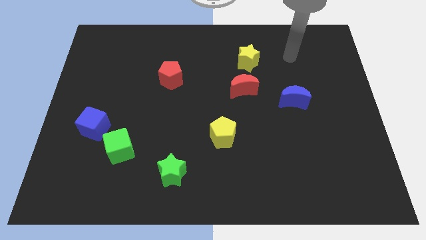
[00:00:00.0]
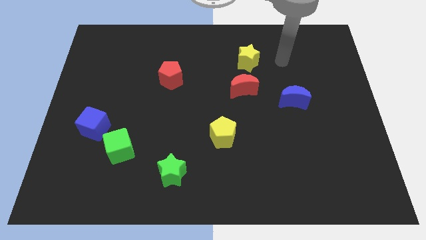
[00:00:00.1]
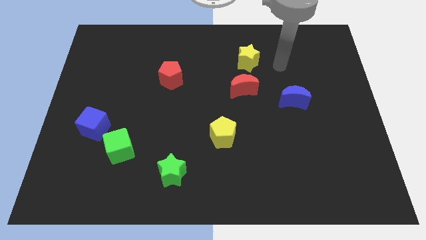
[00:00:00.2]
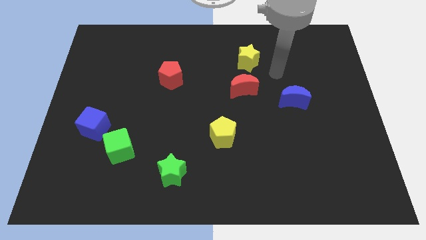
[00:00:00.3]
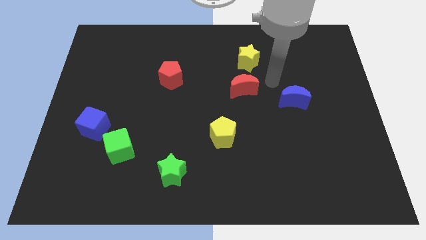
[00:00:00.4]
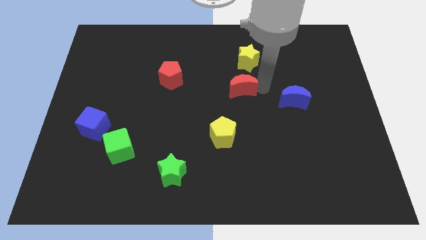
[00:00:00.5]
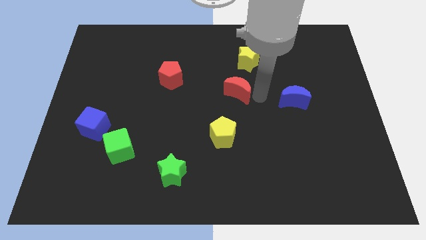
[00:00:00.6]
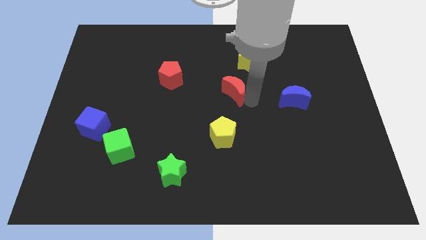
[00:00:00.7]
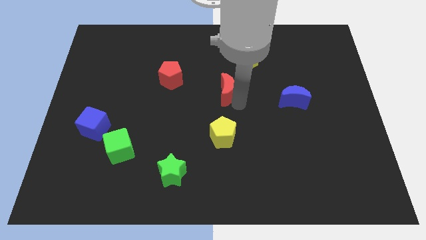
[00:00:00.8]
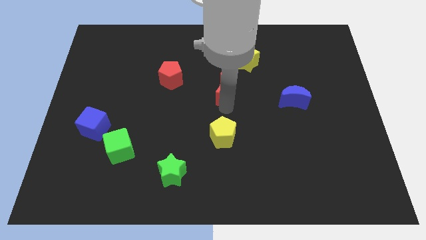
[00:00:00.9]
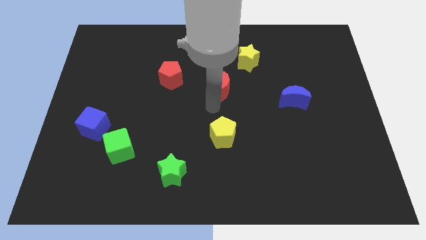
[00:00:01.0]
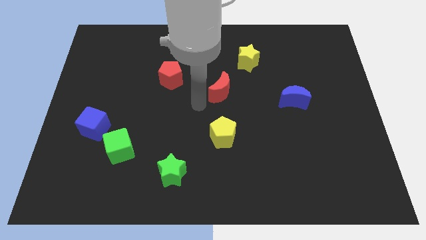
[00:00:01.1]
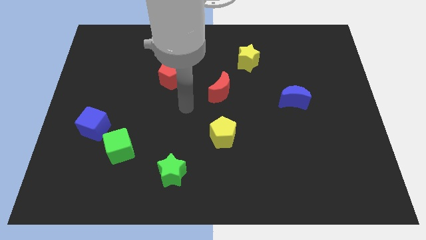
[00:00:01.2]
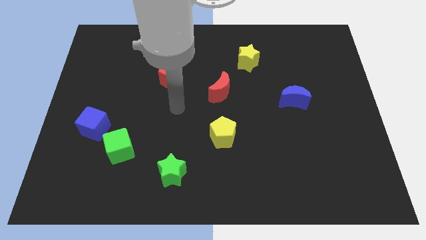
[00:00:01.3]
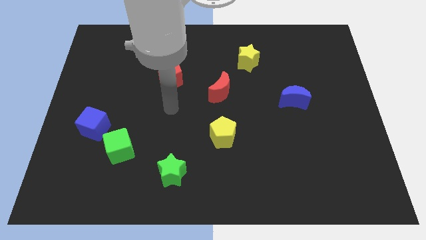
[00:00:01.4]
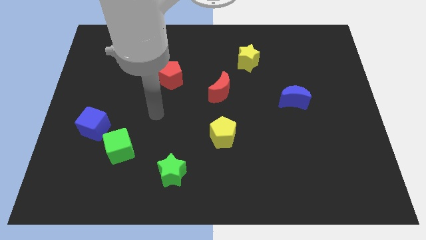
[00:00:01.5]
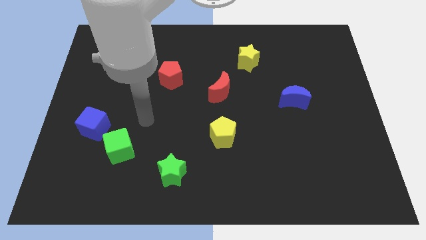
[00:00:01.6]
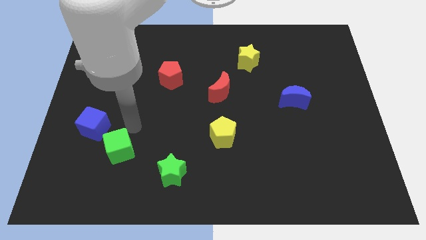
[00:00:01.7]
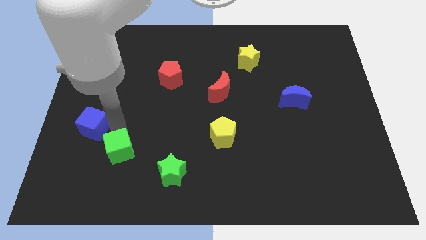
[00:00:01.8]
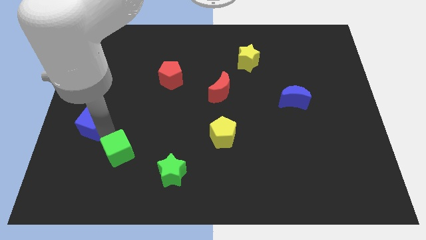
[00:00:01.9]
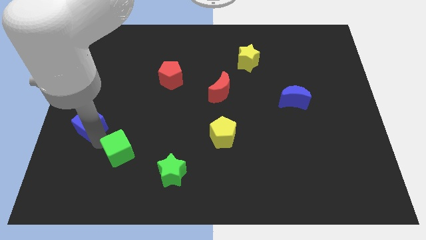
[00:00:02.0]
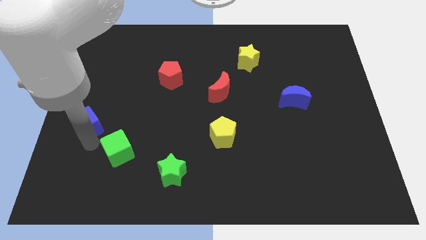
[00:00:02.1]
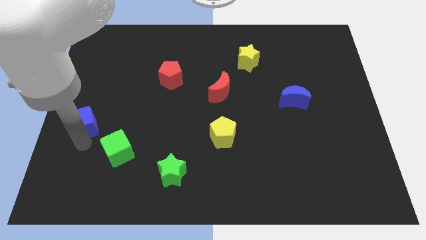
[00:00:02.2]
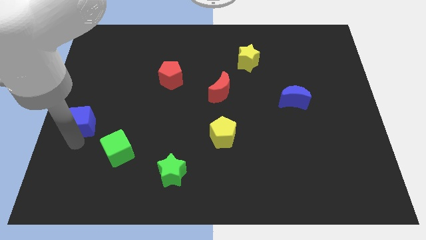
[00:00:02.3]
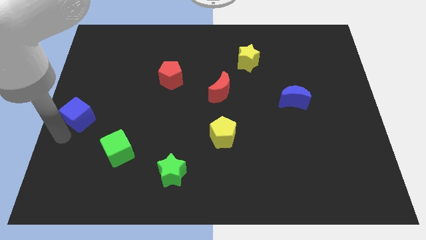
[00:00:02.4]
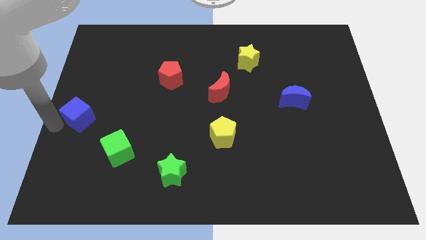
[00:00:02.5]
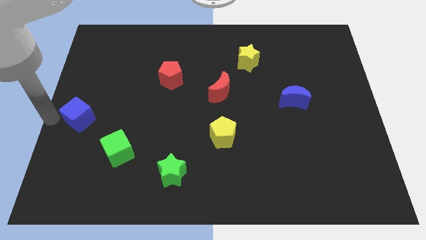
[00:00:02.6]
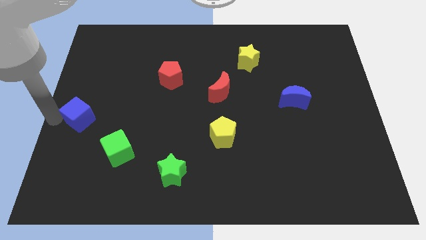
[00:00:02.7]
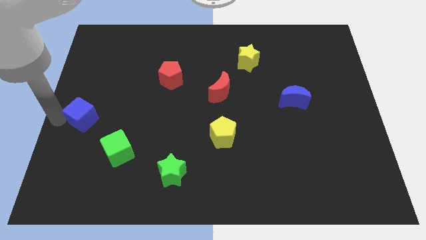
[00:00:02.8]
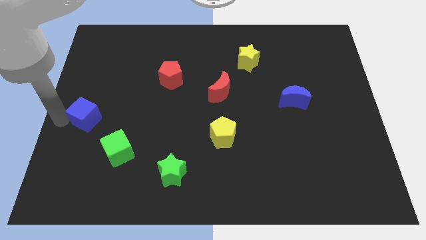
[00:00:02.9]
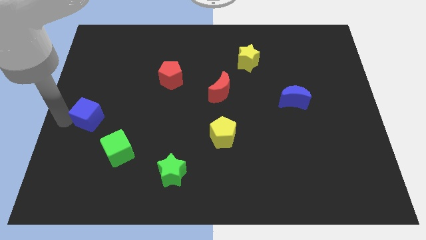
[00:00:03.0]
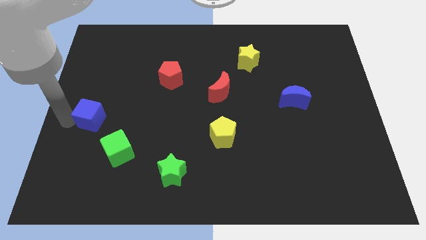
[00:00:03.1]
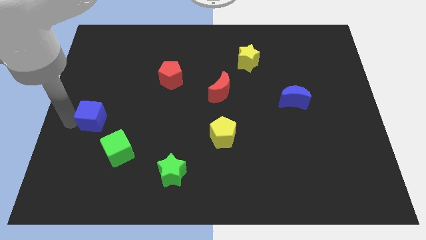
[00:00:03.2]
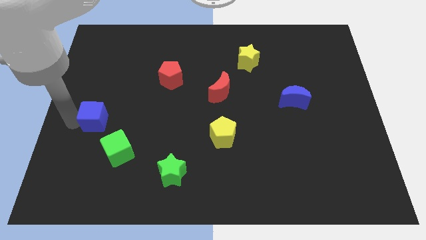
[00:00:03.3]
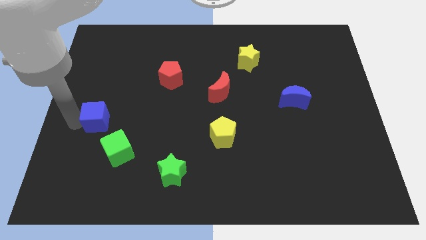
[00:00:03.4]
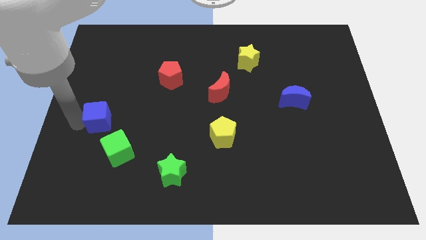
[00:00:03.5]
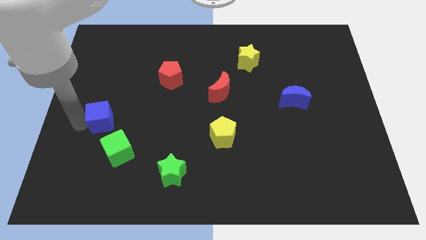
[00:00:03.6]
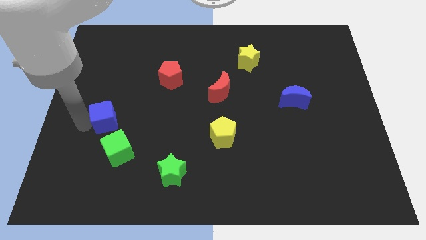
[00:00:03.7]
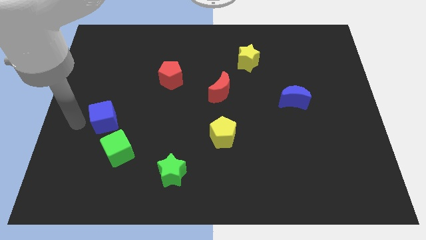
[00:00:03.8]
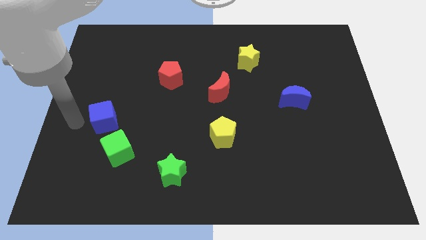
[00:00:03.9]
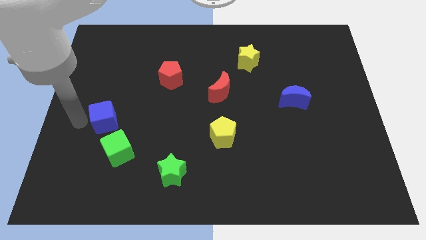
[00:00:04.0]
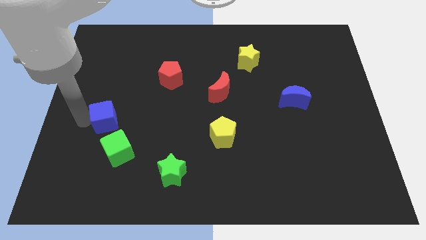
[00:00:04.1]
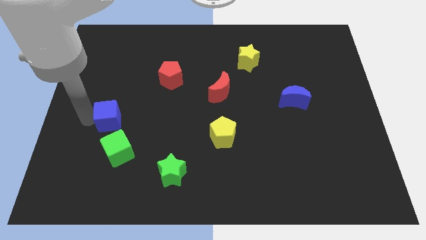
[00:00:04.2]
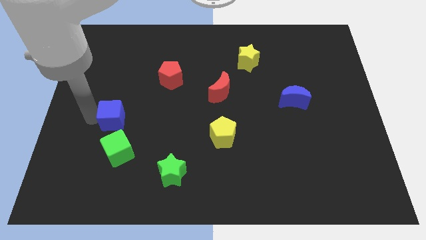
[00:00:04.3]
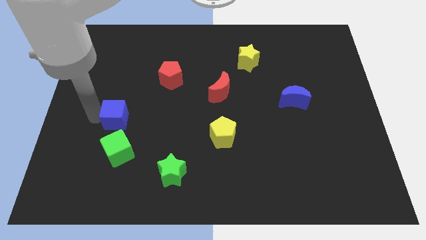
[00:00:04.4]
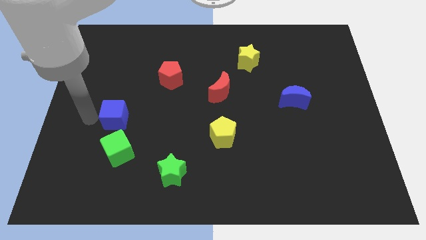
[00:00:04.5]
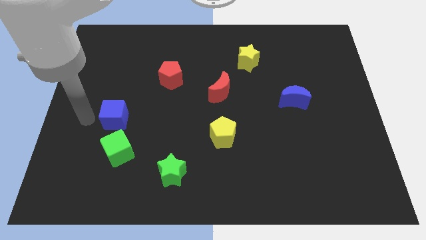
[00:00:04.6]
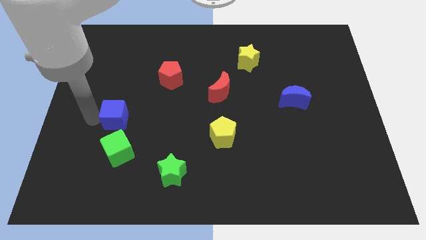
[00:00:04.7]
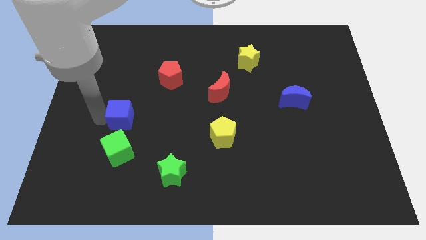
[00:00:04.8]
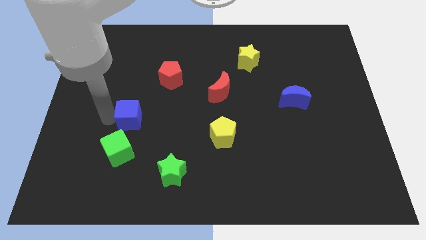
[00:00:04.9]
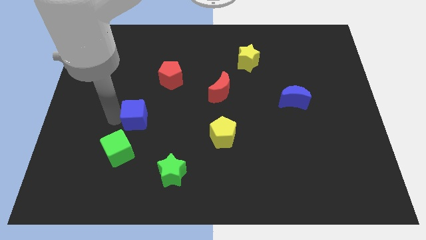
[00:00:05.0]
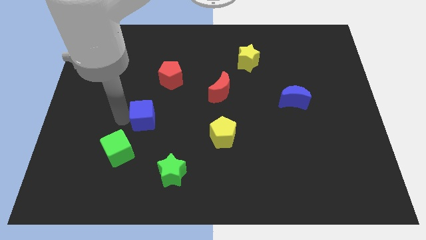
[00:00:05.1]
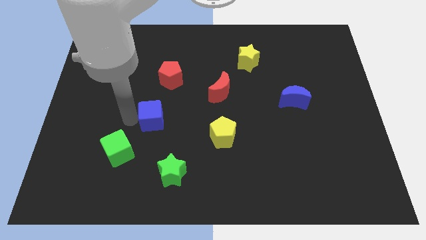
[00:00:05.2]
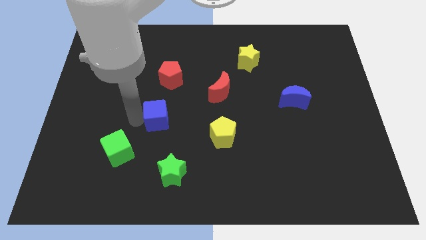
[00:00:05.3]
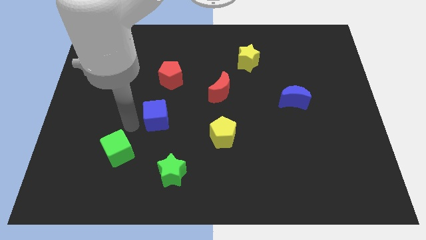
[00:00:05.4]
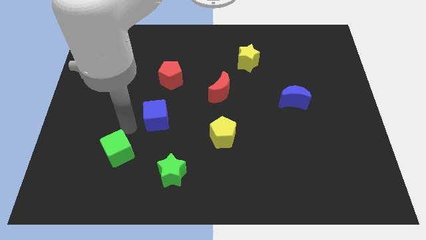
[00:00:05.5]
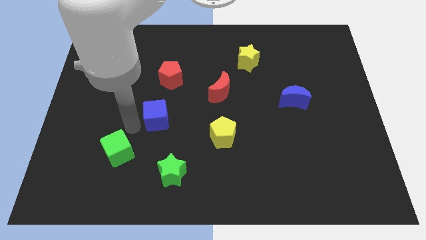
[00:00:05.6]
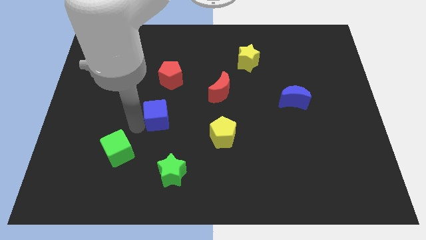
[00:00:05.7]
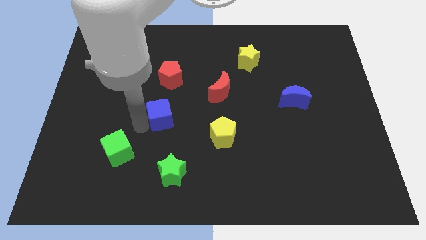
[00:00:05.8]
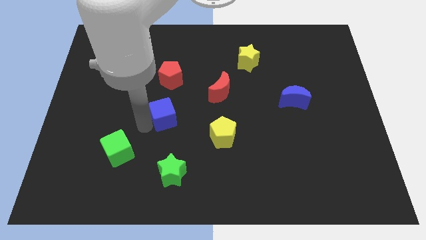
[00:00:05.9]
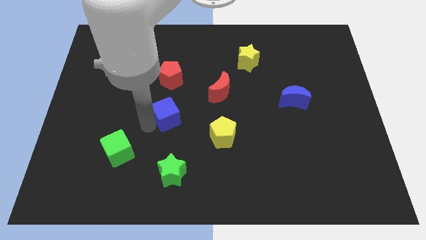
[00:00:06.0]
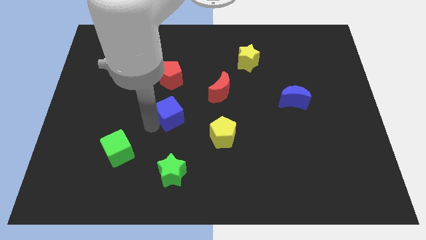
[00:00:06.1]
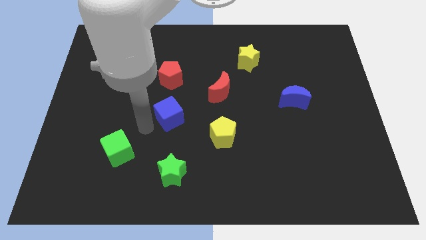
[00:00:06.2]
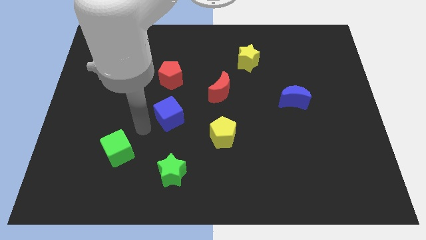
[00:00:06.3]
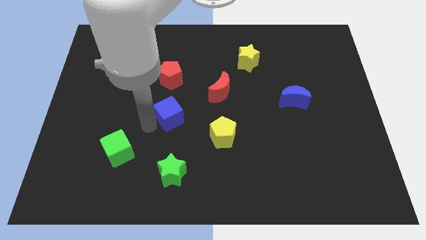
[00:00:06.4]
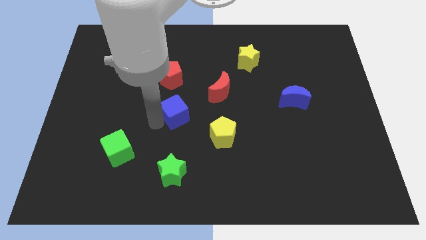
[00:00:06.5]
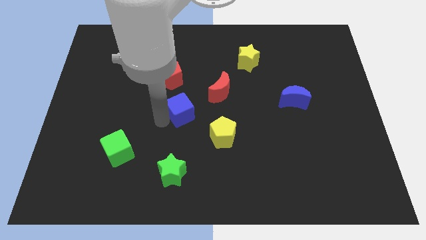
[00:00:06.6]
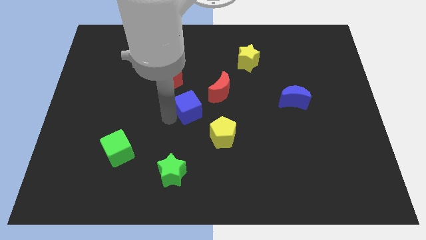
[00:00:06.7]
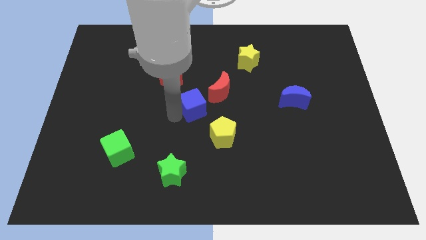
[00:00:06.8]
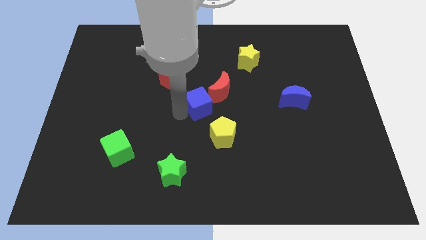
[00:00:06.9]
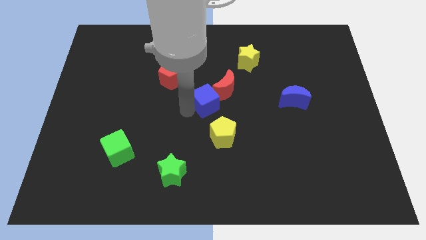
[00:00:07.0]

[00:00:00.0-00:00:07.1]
put the blue cube above the yellow pentagon
